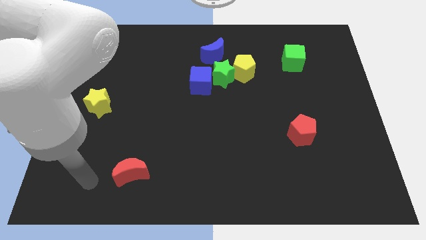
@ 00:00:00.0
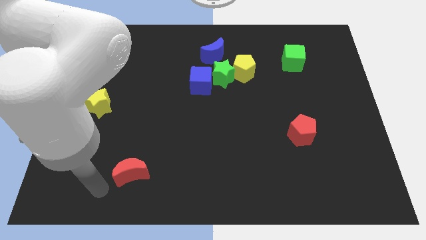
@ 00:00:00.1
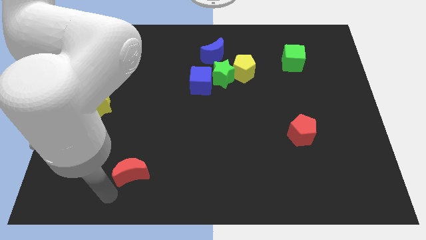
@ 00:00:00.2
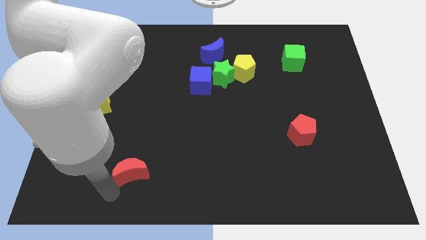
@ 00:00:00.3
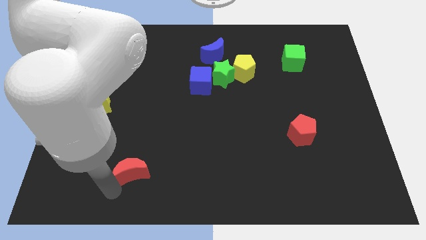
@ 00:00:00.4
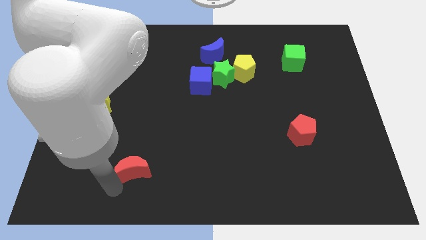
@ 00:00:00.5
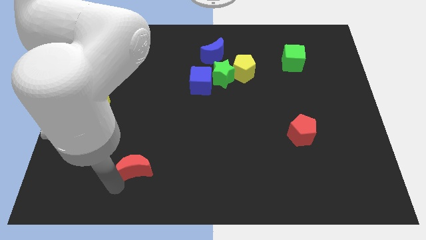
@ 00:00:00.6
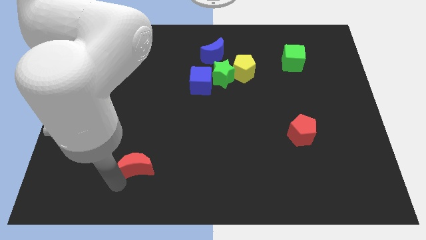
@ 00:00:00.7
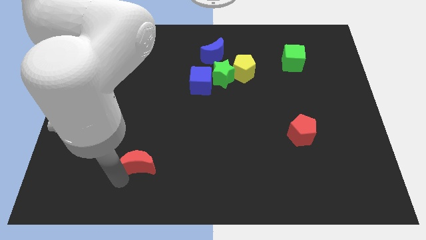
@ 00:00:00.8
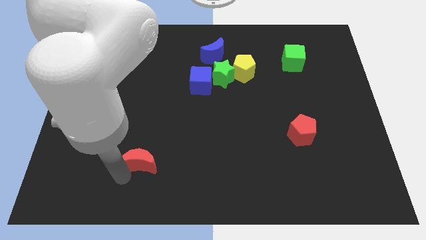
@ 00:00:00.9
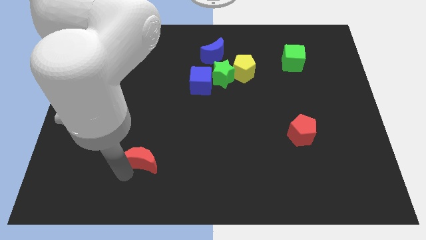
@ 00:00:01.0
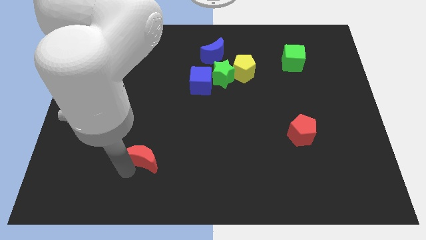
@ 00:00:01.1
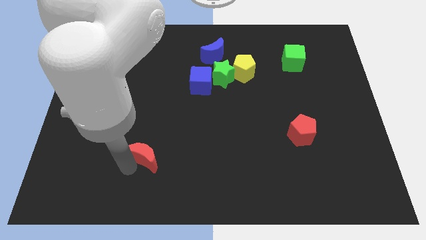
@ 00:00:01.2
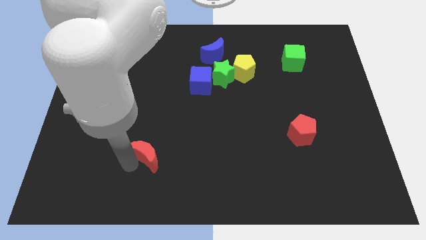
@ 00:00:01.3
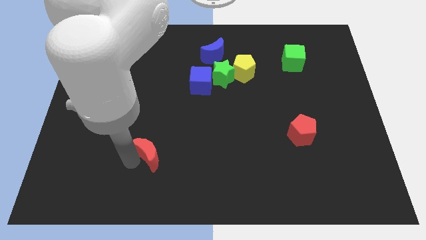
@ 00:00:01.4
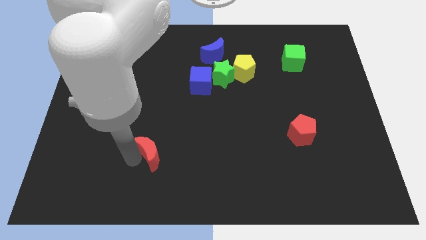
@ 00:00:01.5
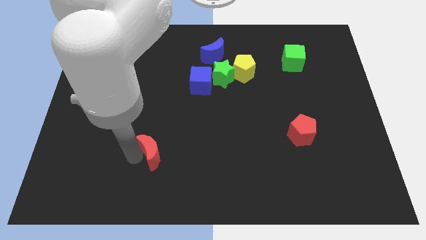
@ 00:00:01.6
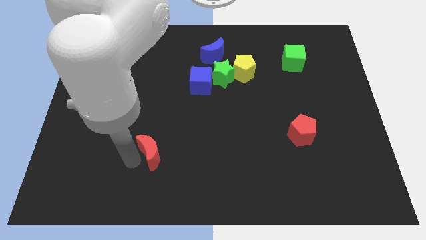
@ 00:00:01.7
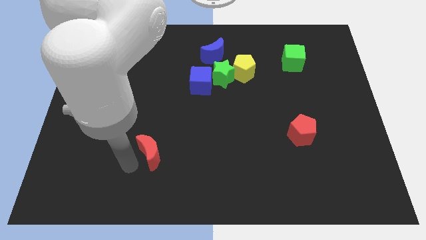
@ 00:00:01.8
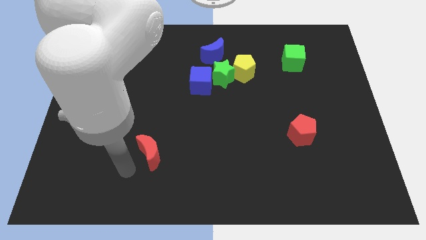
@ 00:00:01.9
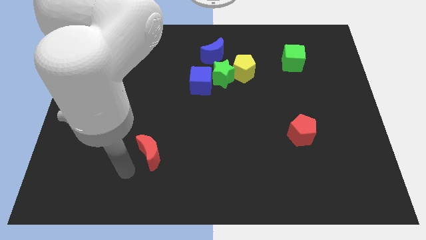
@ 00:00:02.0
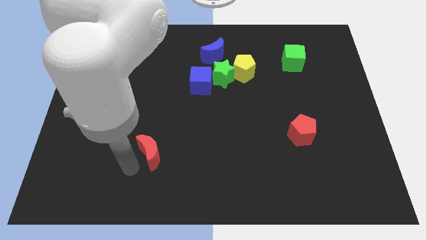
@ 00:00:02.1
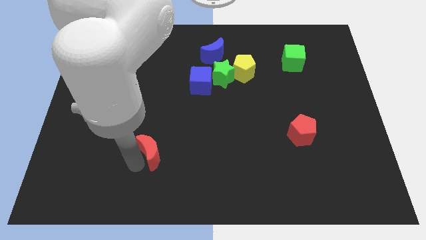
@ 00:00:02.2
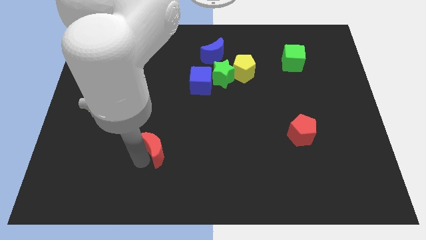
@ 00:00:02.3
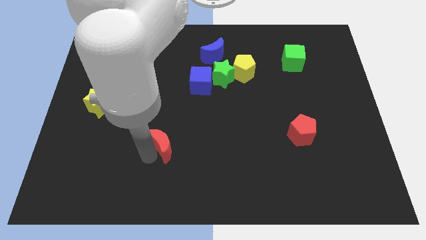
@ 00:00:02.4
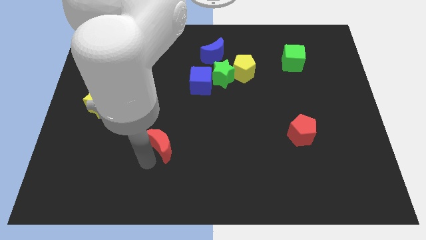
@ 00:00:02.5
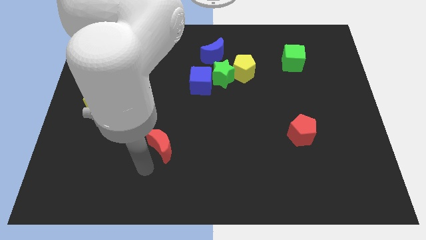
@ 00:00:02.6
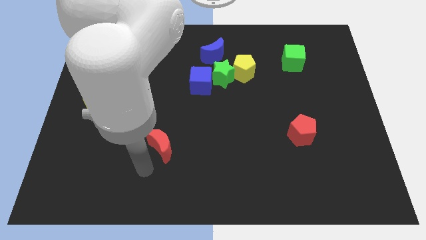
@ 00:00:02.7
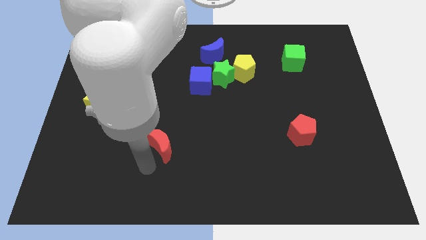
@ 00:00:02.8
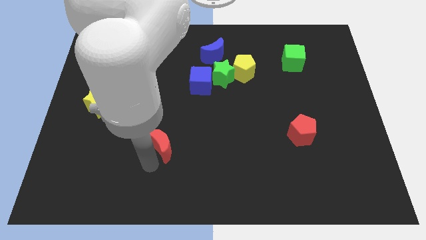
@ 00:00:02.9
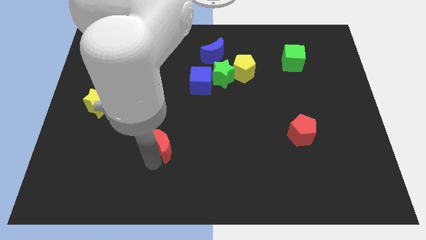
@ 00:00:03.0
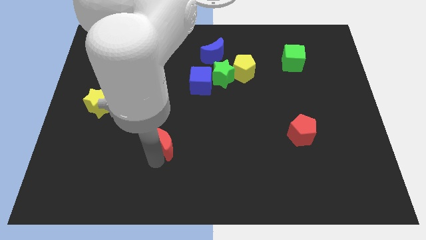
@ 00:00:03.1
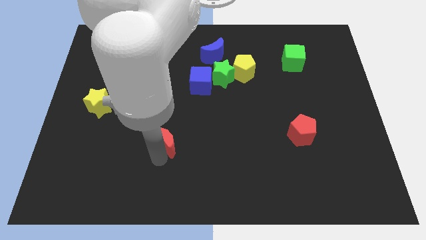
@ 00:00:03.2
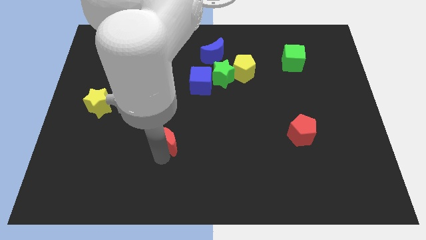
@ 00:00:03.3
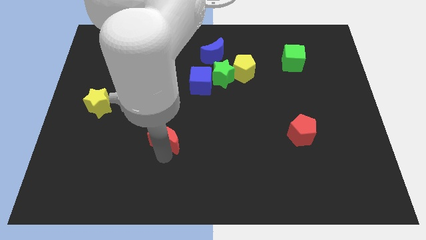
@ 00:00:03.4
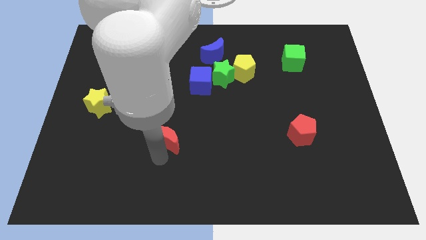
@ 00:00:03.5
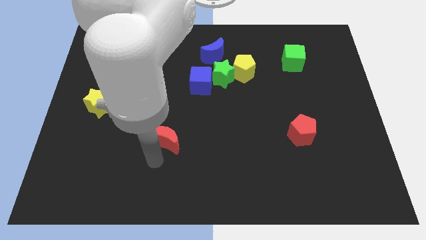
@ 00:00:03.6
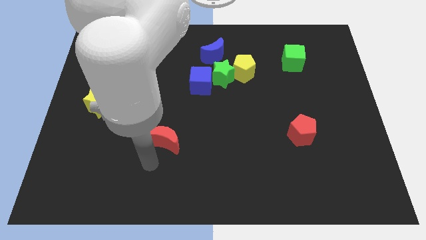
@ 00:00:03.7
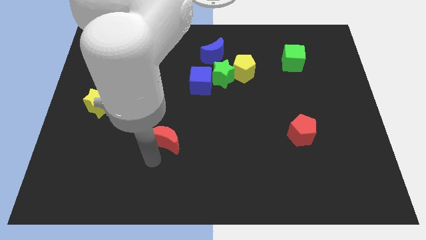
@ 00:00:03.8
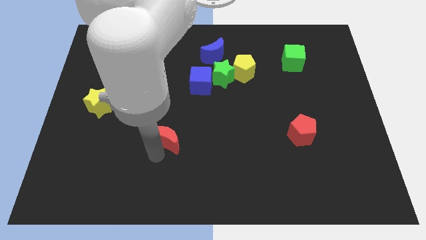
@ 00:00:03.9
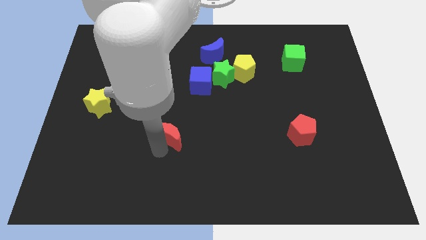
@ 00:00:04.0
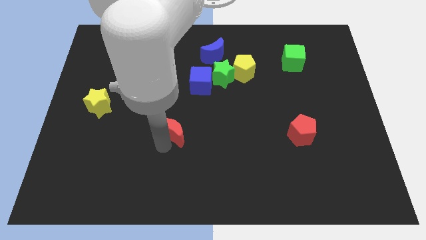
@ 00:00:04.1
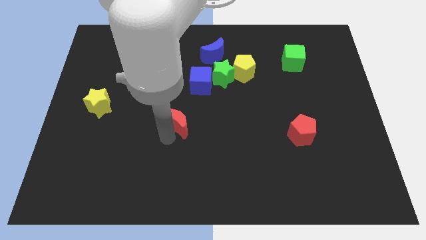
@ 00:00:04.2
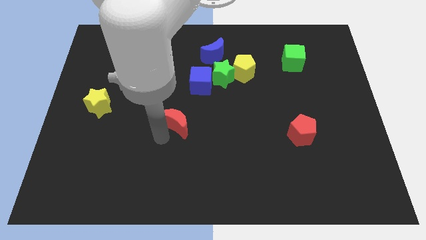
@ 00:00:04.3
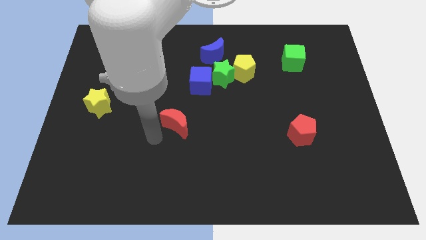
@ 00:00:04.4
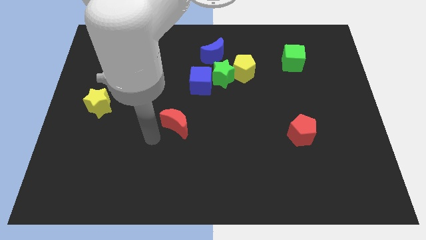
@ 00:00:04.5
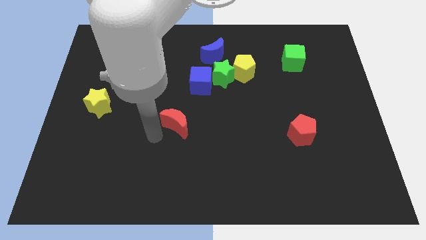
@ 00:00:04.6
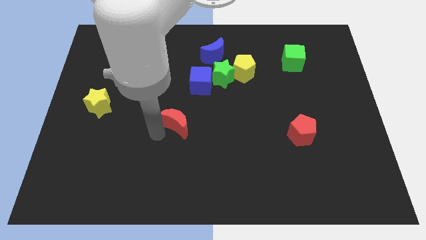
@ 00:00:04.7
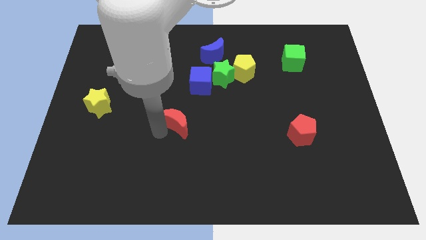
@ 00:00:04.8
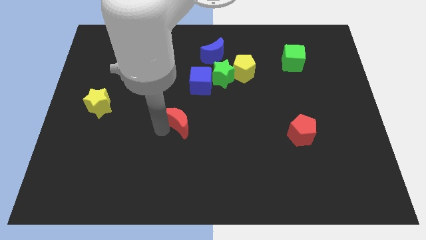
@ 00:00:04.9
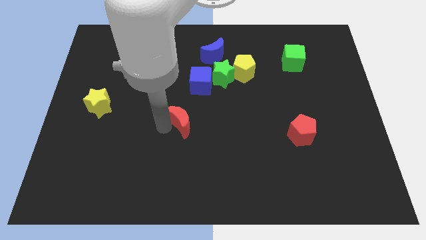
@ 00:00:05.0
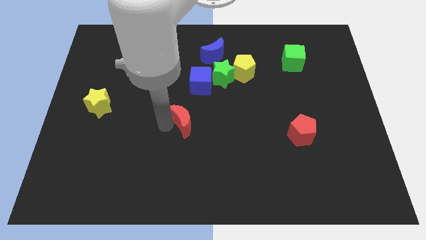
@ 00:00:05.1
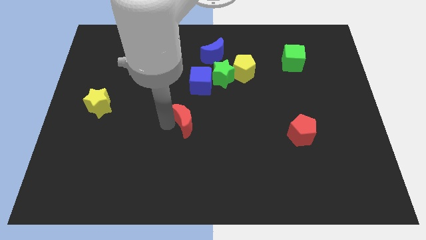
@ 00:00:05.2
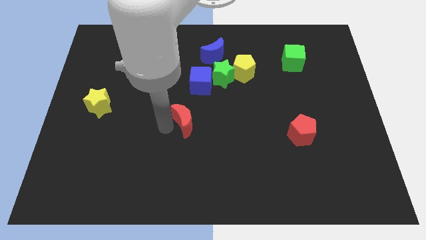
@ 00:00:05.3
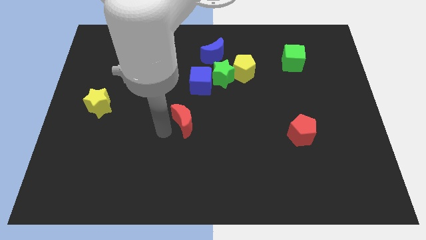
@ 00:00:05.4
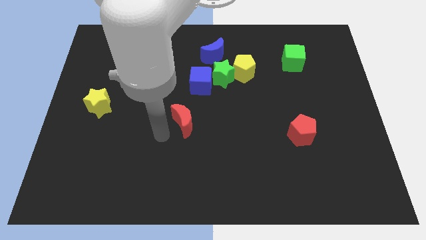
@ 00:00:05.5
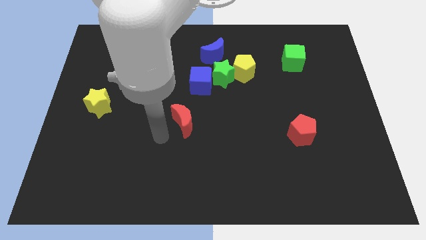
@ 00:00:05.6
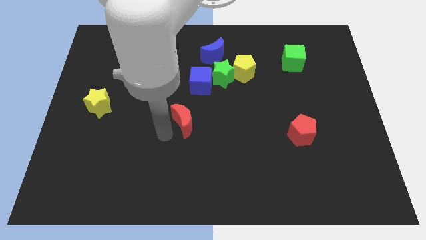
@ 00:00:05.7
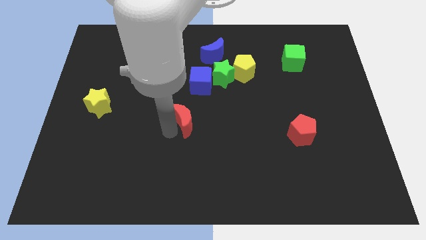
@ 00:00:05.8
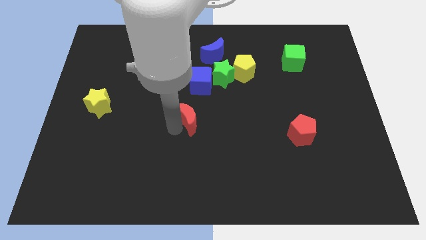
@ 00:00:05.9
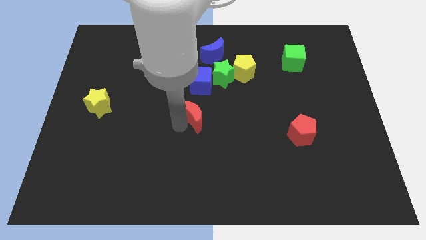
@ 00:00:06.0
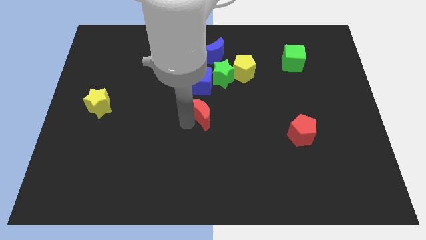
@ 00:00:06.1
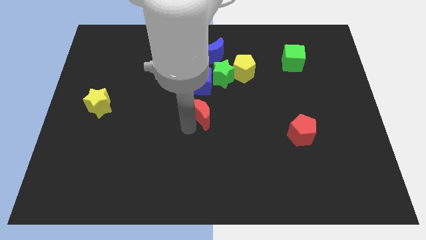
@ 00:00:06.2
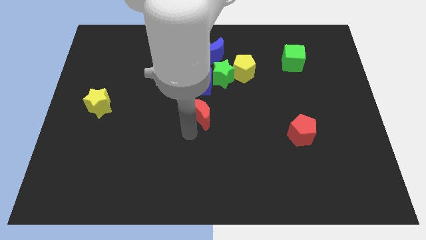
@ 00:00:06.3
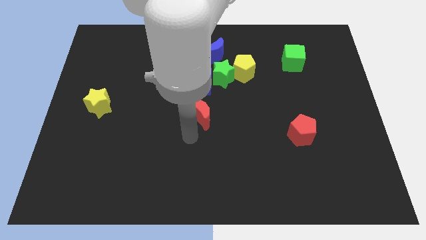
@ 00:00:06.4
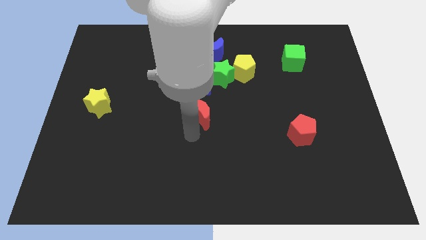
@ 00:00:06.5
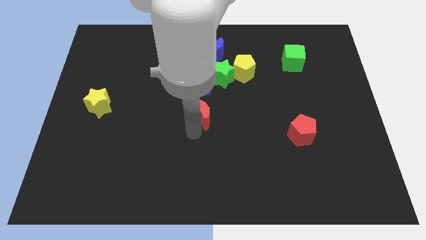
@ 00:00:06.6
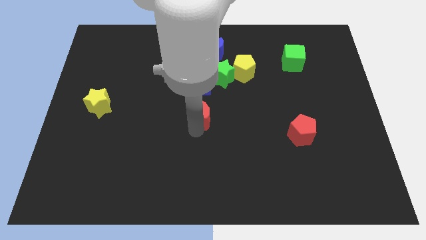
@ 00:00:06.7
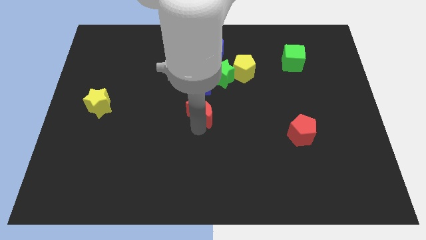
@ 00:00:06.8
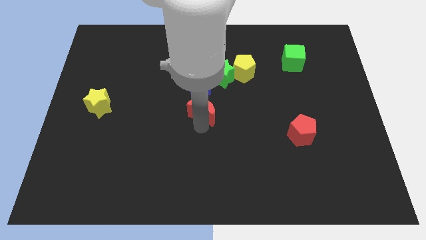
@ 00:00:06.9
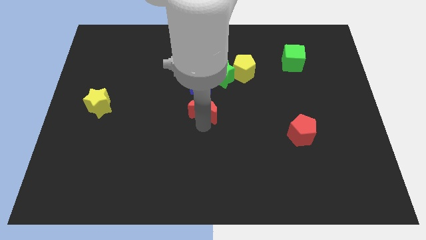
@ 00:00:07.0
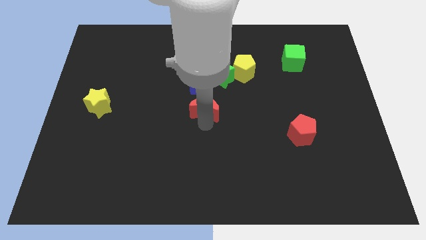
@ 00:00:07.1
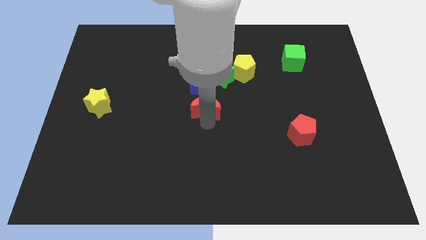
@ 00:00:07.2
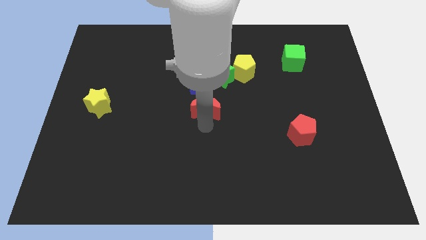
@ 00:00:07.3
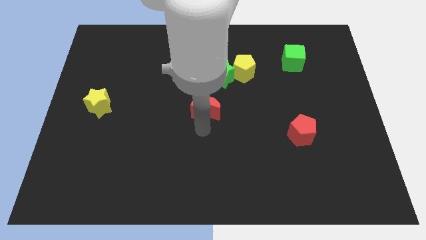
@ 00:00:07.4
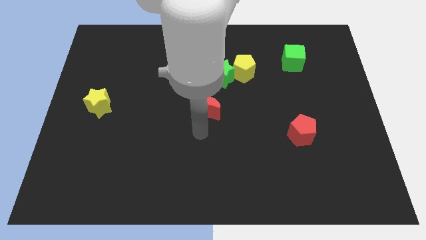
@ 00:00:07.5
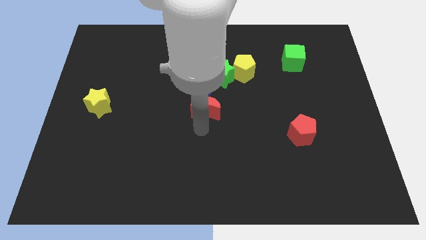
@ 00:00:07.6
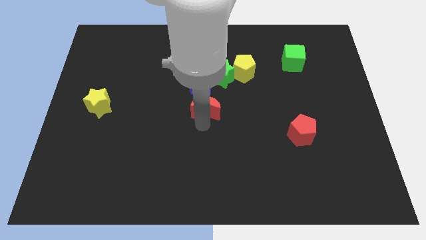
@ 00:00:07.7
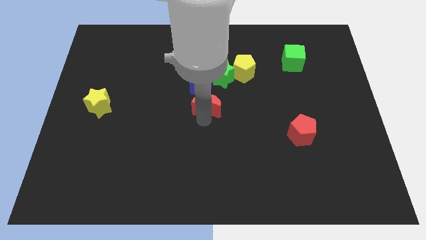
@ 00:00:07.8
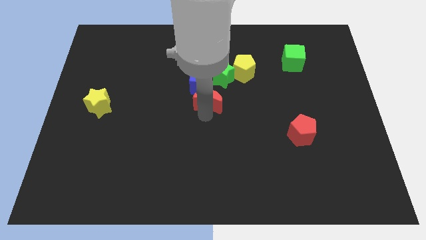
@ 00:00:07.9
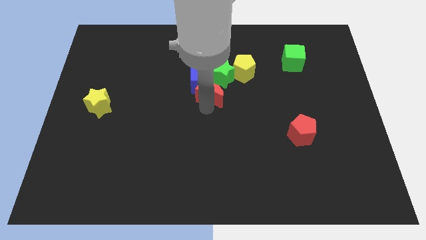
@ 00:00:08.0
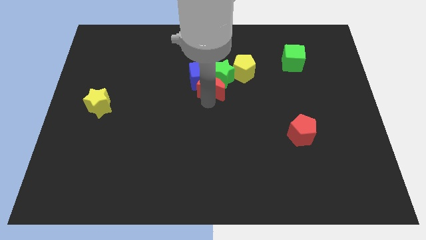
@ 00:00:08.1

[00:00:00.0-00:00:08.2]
push the red moon towards the green star
